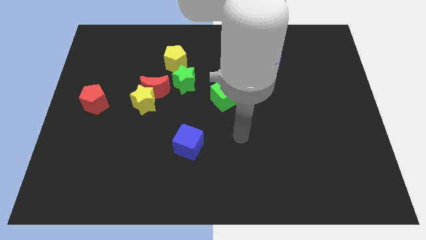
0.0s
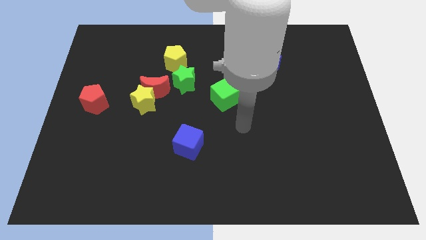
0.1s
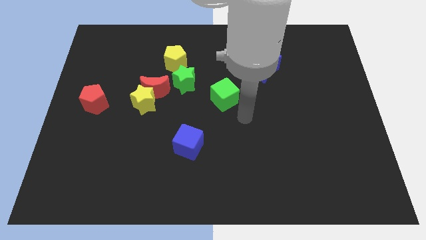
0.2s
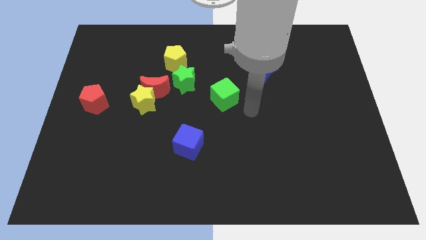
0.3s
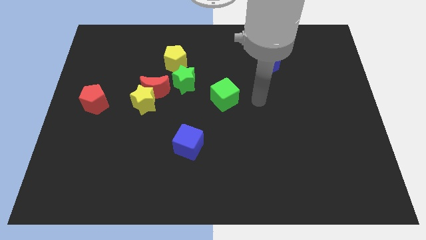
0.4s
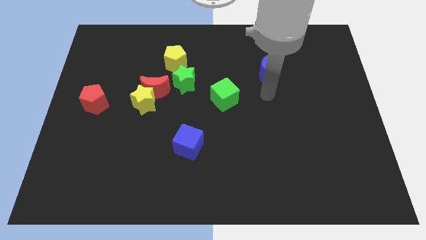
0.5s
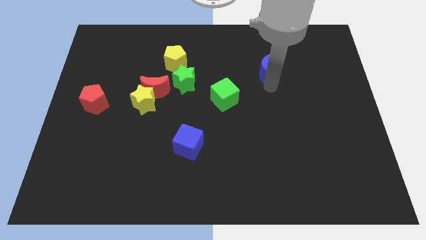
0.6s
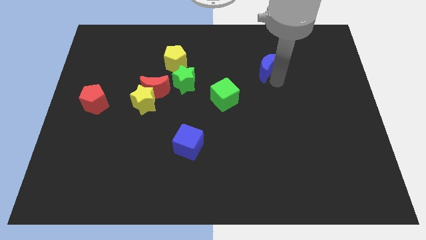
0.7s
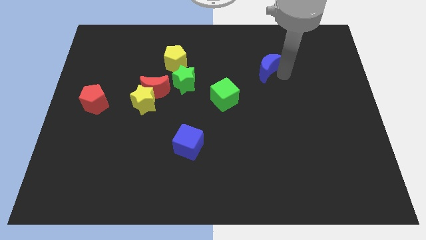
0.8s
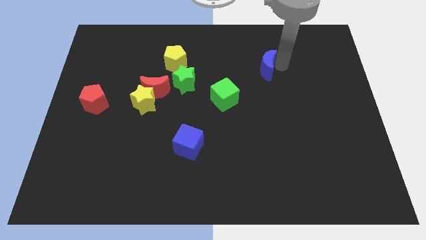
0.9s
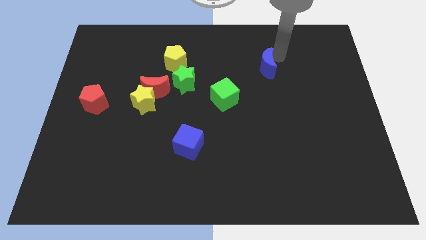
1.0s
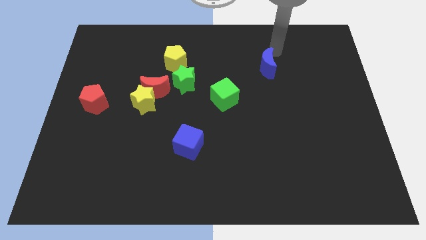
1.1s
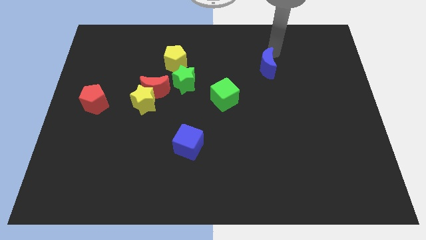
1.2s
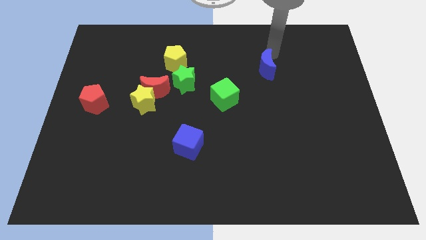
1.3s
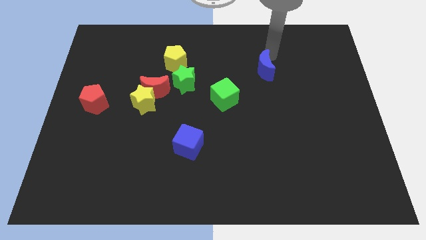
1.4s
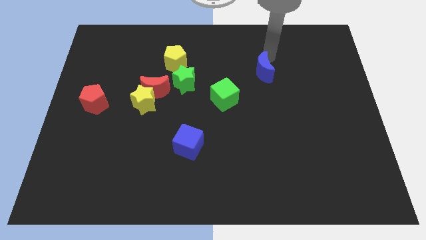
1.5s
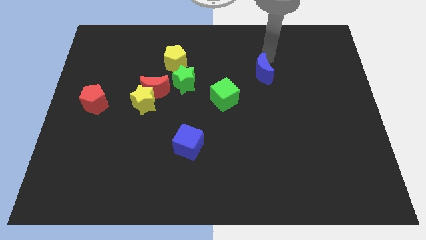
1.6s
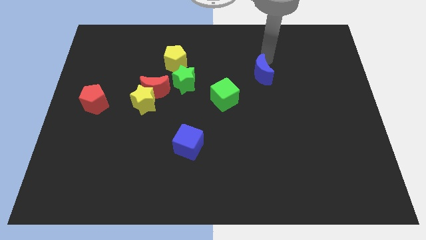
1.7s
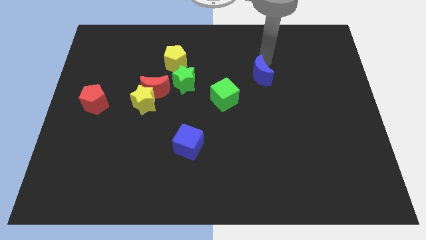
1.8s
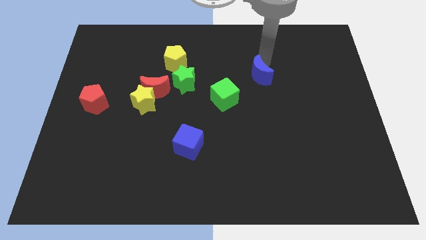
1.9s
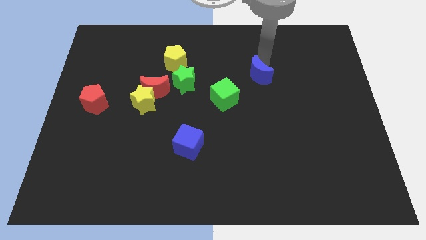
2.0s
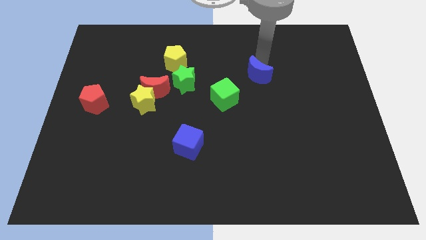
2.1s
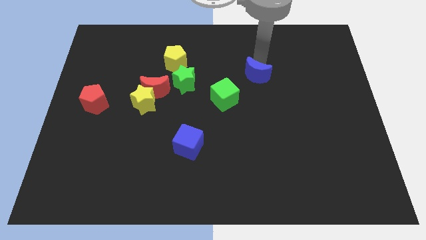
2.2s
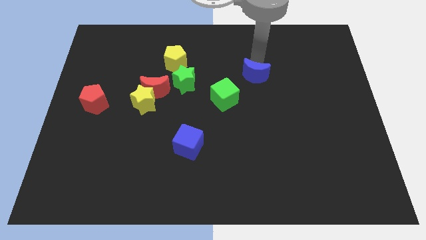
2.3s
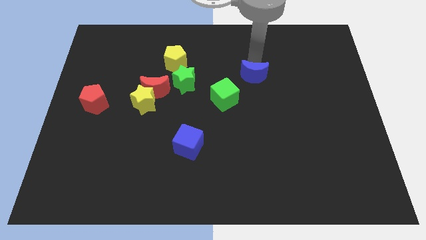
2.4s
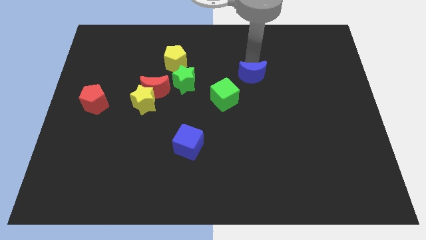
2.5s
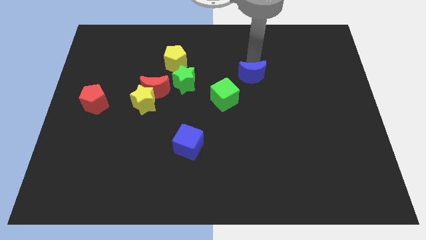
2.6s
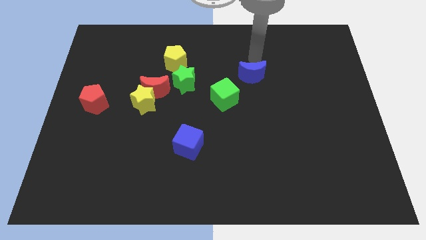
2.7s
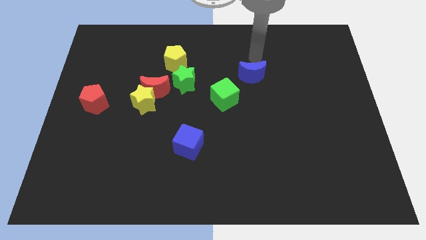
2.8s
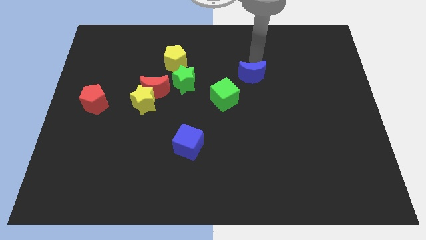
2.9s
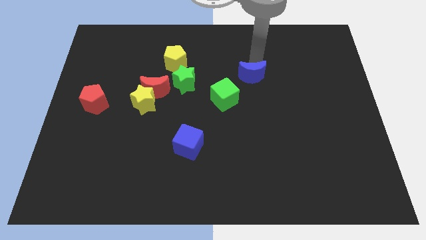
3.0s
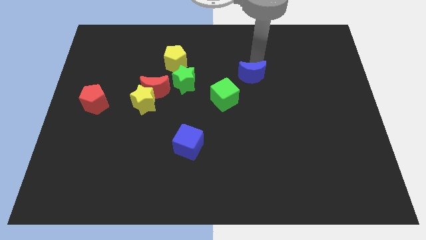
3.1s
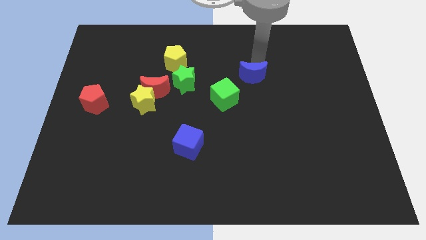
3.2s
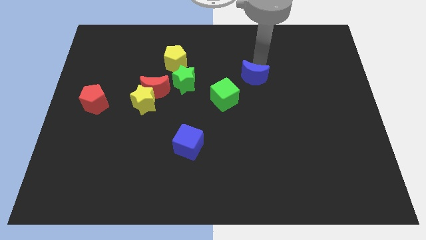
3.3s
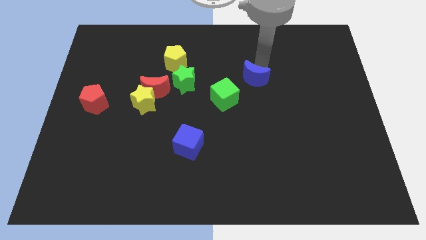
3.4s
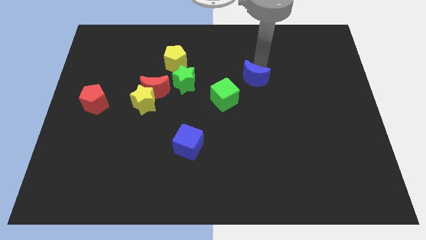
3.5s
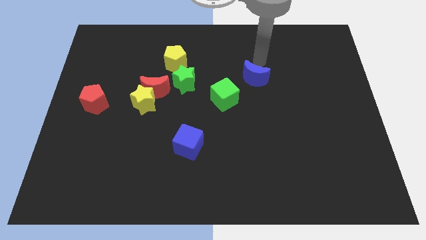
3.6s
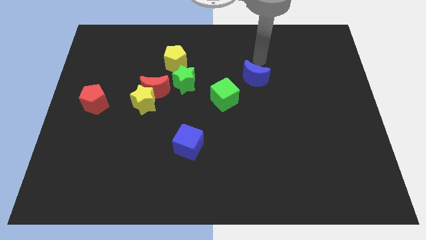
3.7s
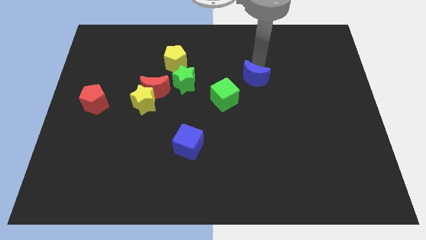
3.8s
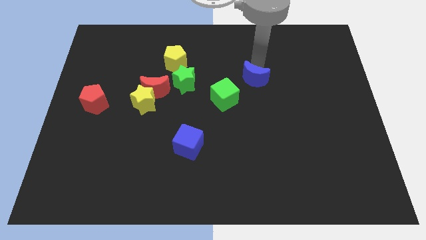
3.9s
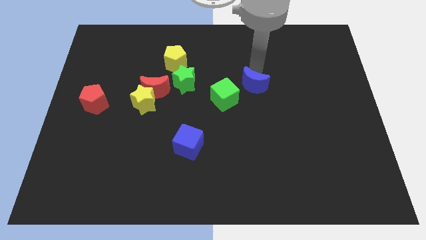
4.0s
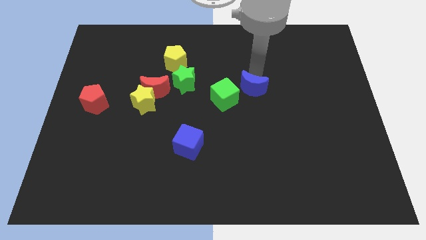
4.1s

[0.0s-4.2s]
push the blue moon slightly downwards and to the left

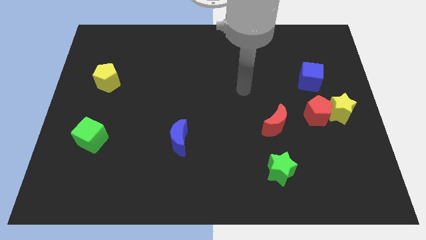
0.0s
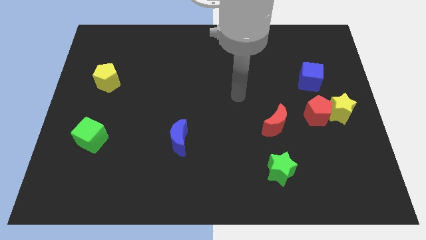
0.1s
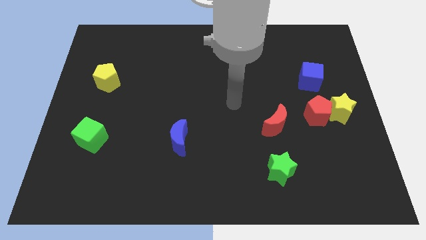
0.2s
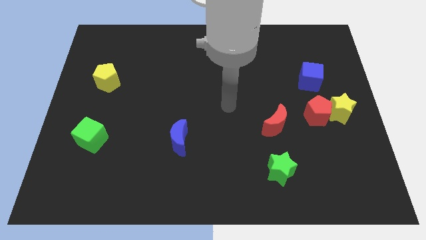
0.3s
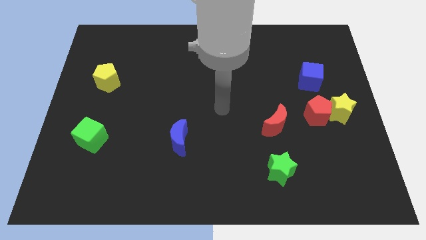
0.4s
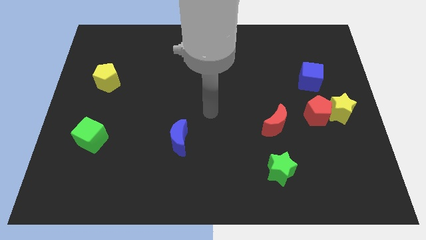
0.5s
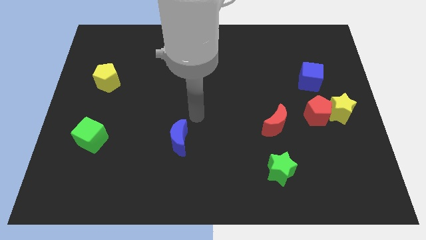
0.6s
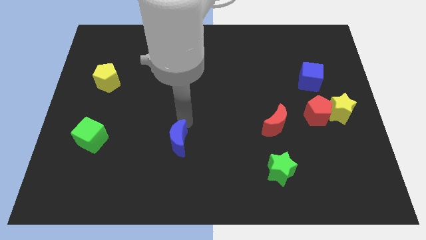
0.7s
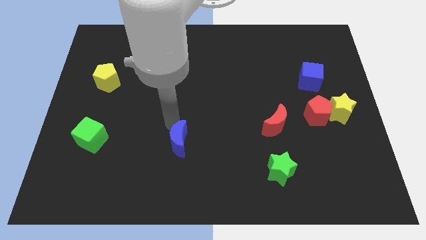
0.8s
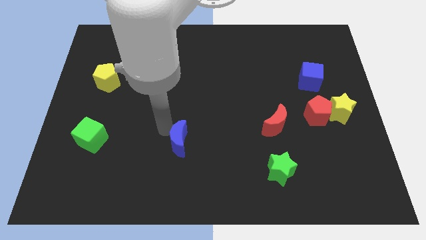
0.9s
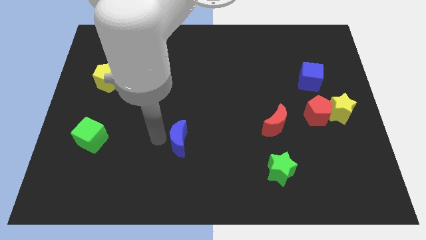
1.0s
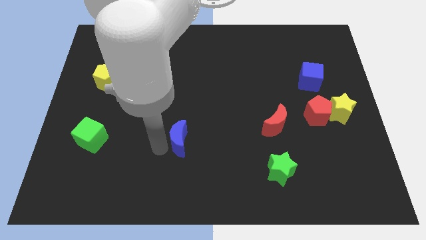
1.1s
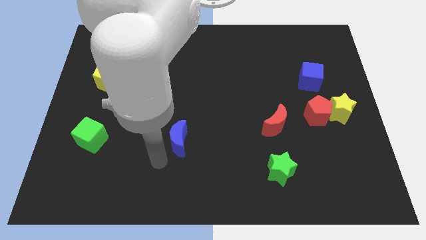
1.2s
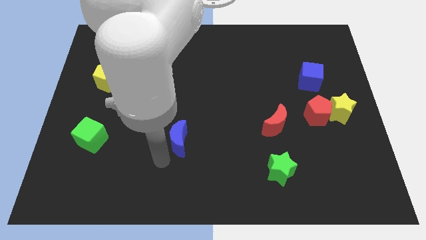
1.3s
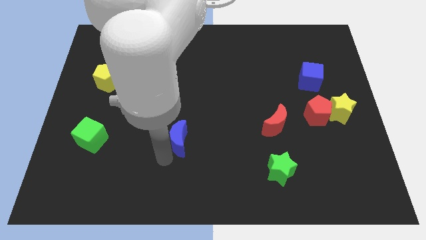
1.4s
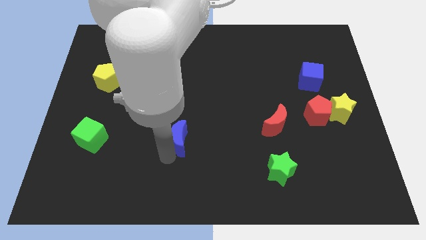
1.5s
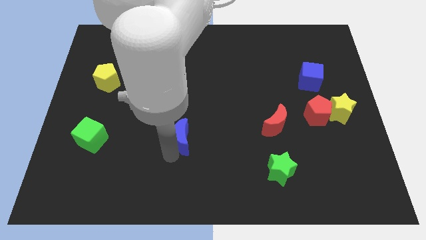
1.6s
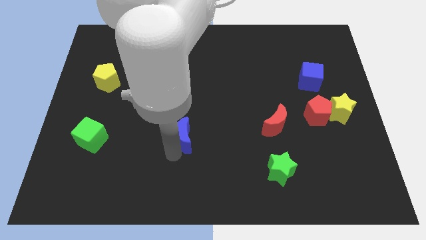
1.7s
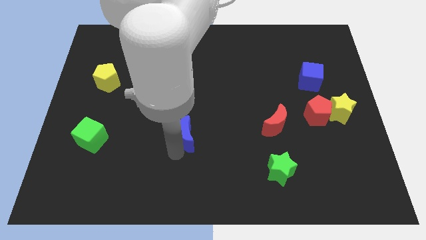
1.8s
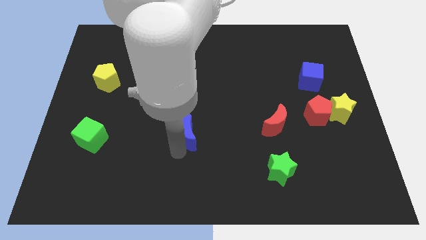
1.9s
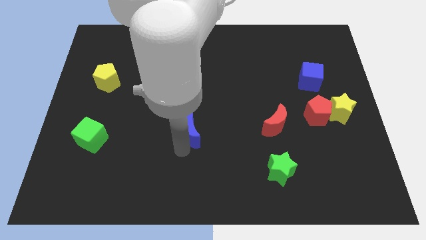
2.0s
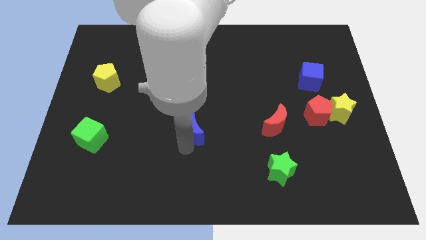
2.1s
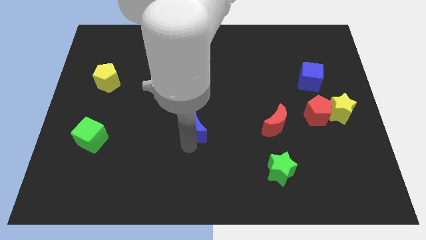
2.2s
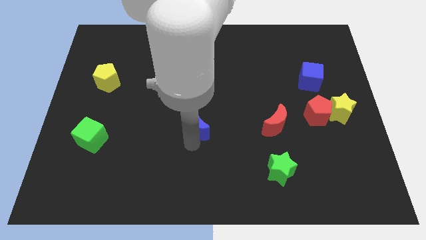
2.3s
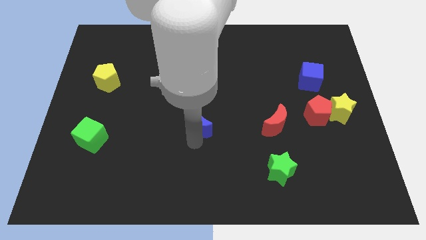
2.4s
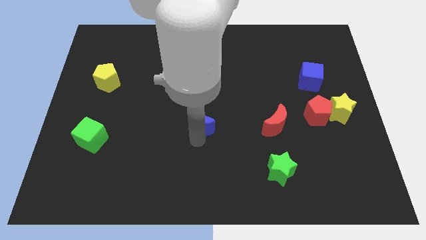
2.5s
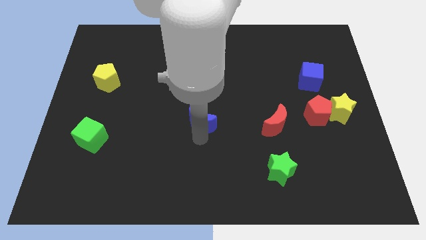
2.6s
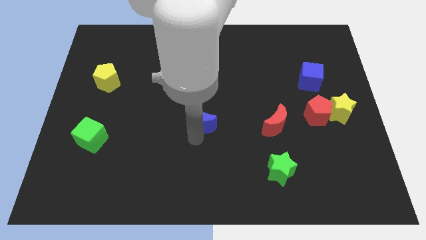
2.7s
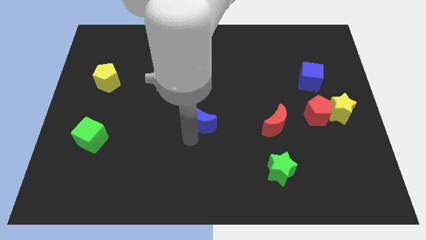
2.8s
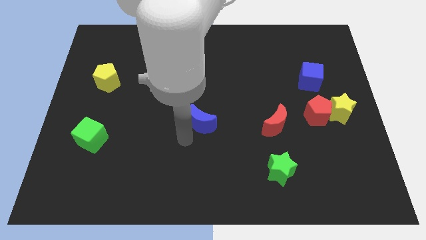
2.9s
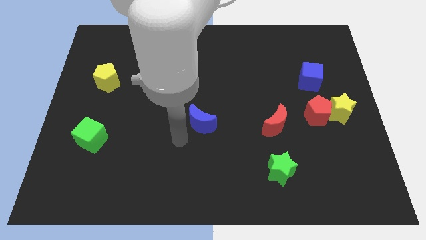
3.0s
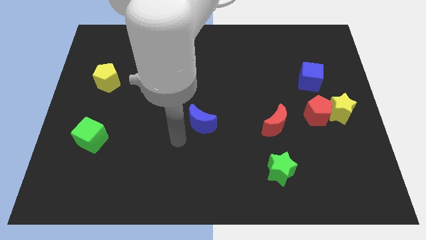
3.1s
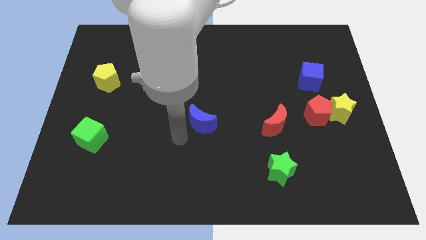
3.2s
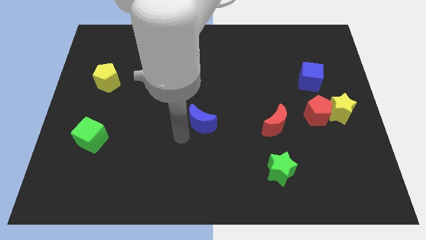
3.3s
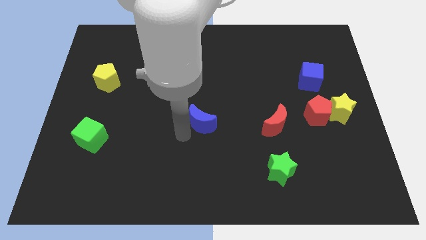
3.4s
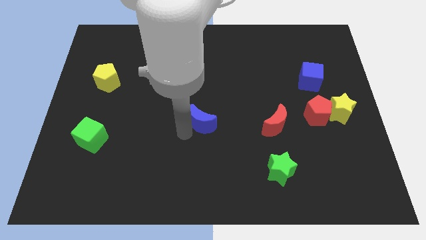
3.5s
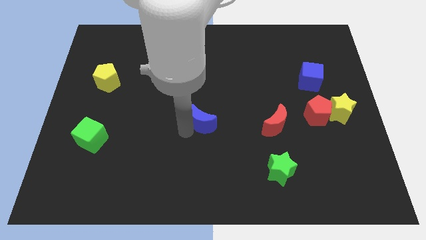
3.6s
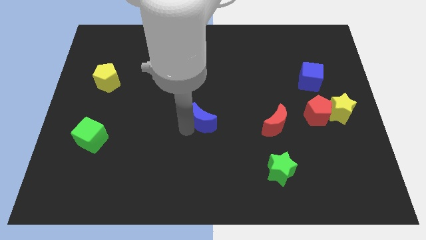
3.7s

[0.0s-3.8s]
slide the blue moon a little upwards and to the right diagonally

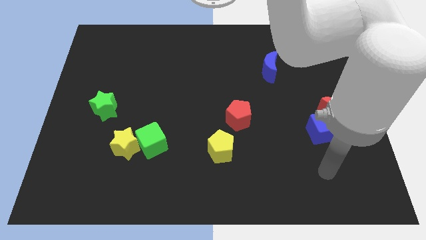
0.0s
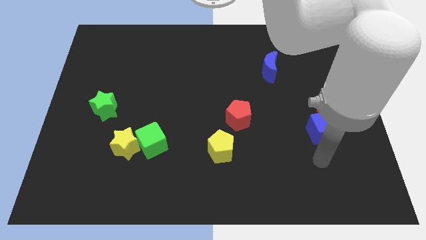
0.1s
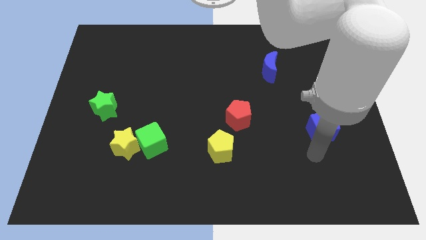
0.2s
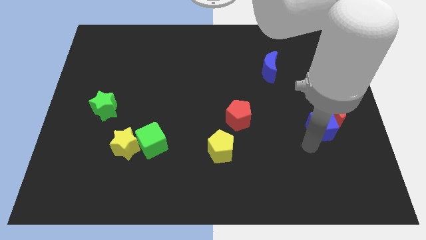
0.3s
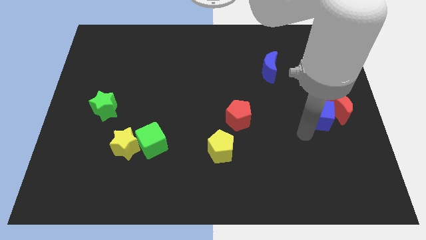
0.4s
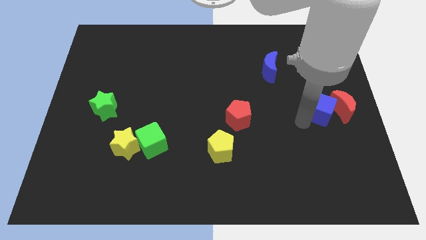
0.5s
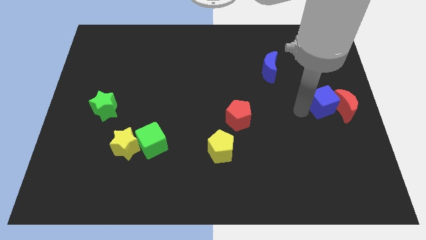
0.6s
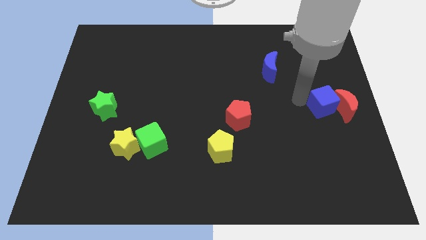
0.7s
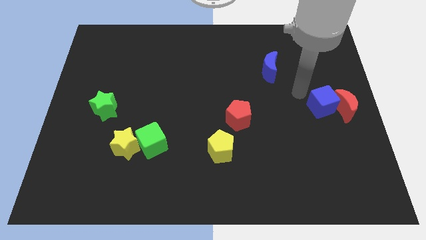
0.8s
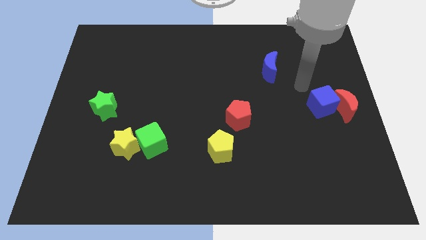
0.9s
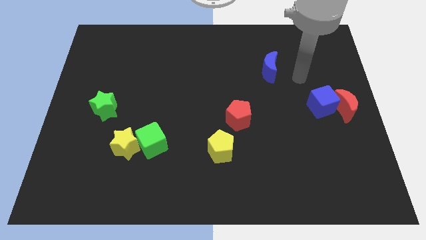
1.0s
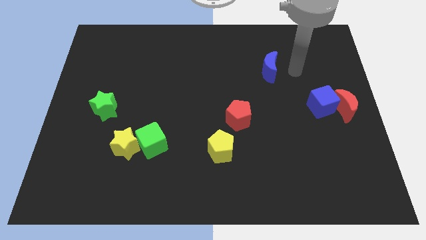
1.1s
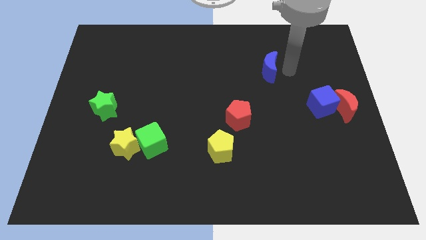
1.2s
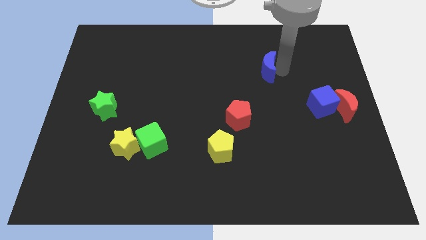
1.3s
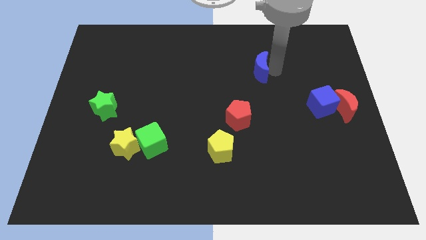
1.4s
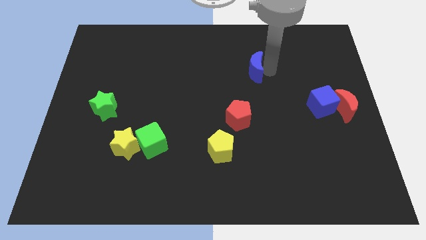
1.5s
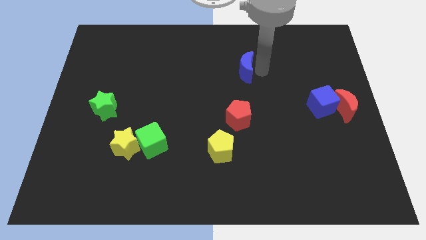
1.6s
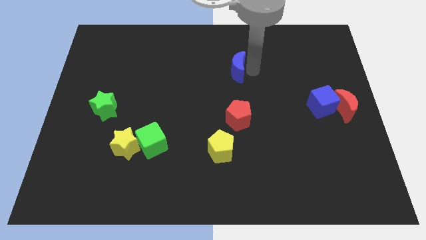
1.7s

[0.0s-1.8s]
slightly move the blue moon to the left
